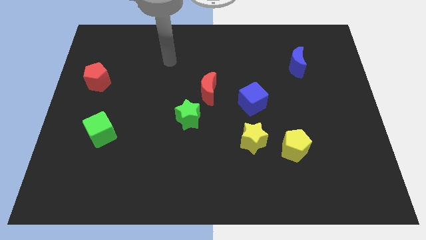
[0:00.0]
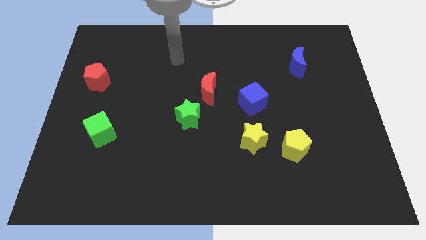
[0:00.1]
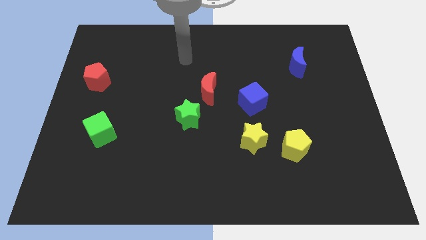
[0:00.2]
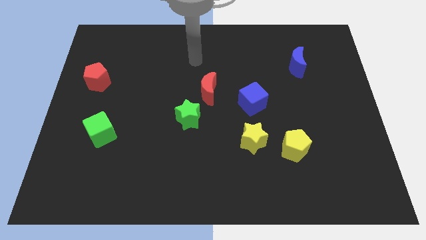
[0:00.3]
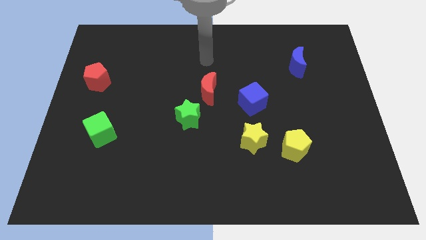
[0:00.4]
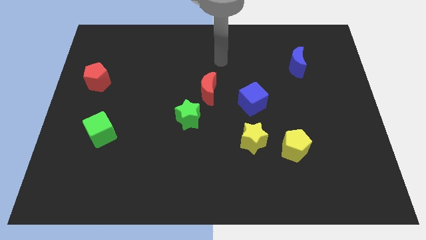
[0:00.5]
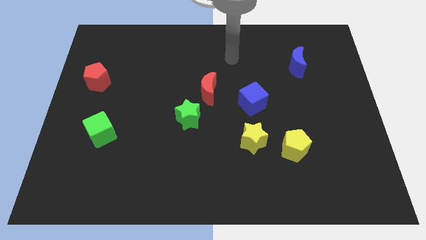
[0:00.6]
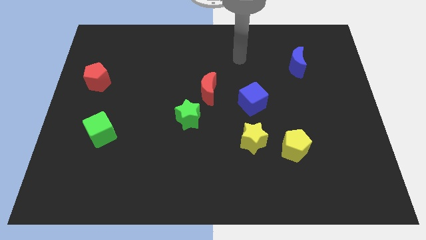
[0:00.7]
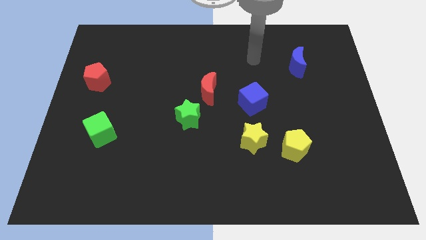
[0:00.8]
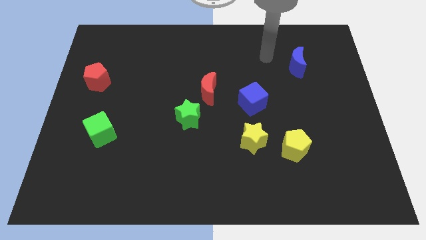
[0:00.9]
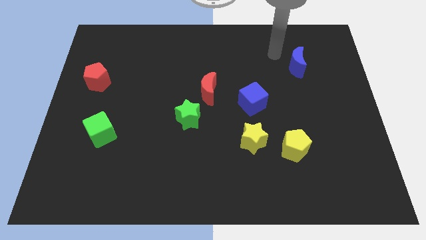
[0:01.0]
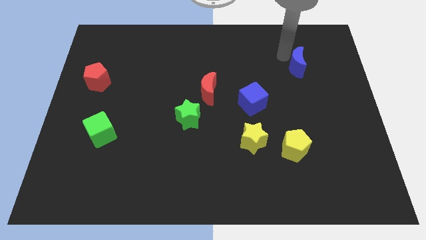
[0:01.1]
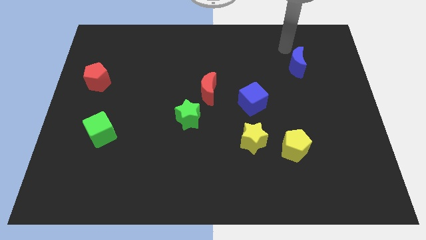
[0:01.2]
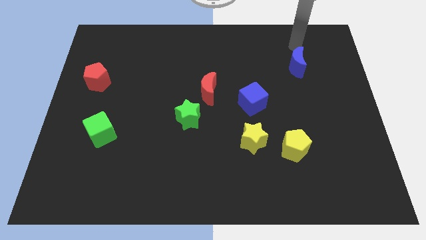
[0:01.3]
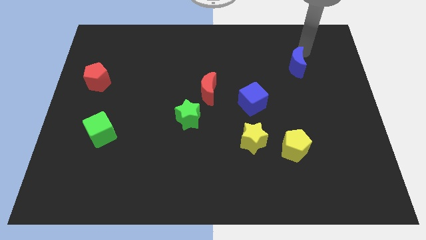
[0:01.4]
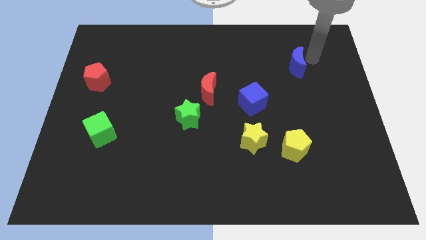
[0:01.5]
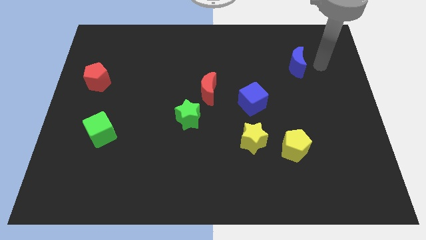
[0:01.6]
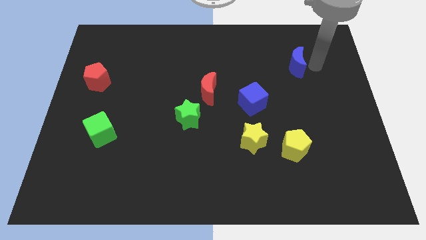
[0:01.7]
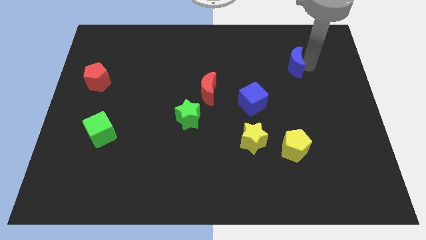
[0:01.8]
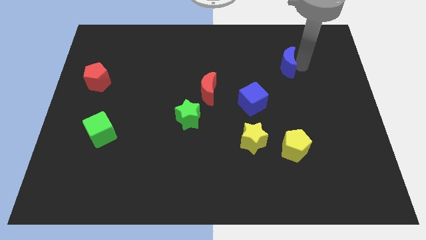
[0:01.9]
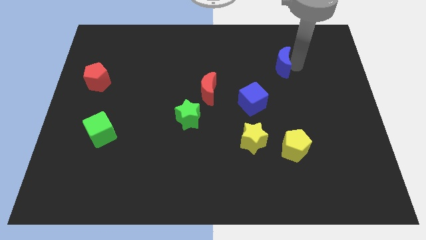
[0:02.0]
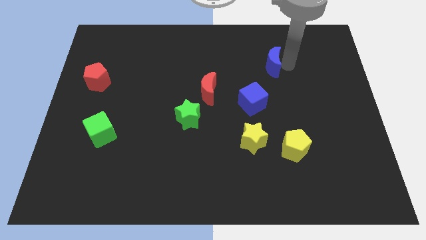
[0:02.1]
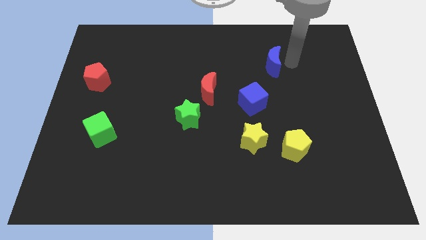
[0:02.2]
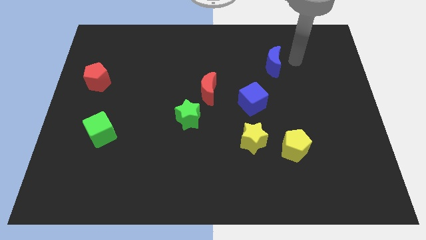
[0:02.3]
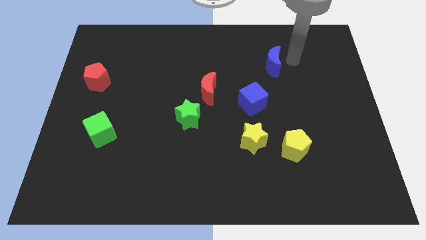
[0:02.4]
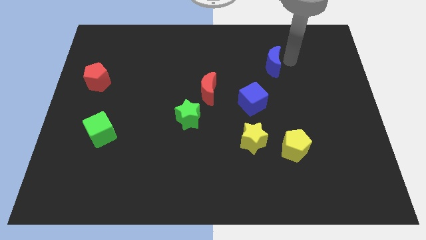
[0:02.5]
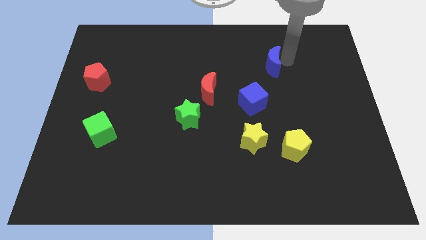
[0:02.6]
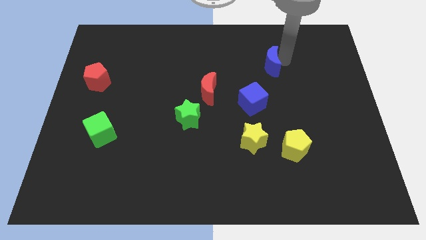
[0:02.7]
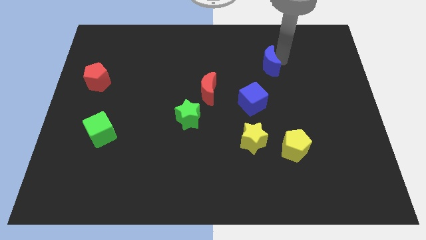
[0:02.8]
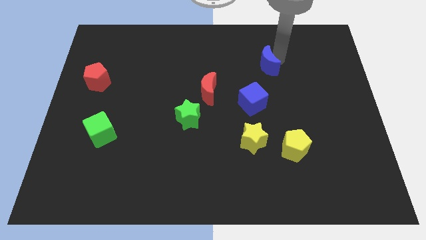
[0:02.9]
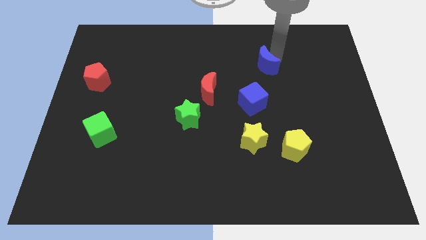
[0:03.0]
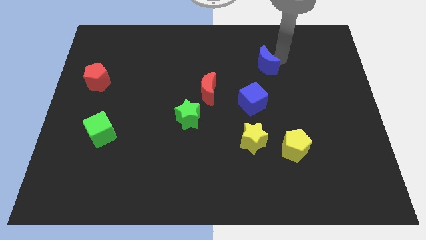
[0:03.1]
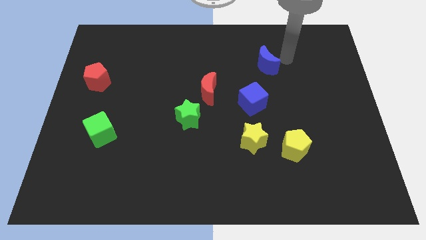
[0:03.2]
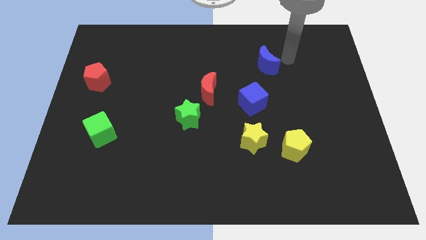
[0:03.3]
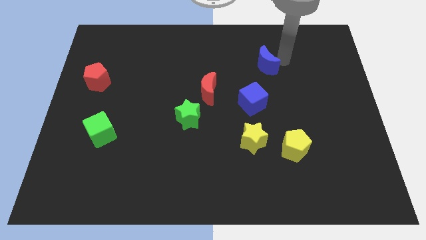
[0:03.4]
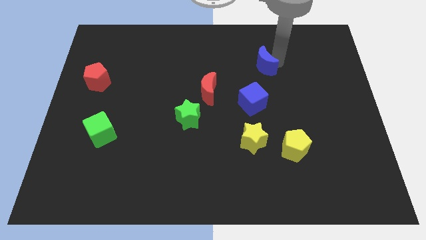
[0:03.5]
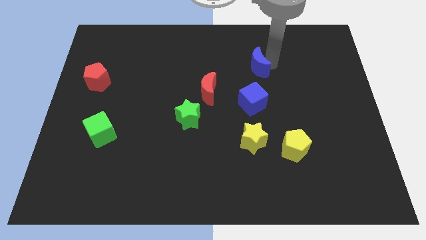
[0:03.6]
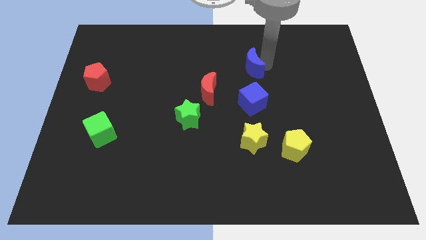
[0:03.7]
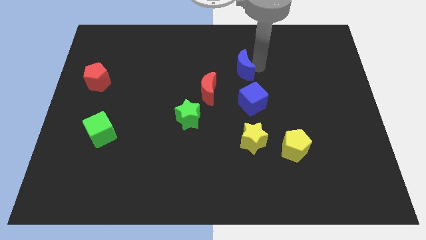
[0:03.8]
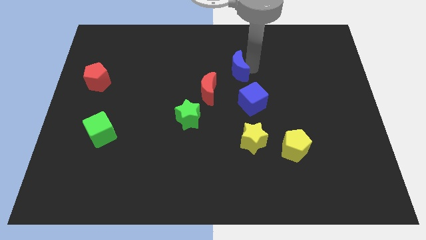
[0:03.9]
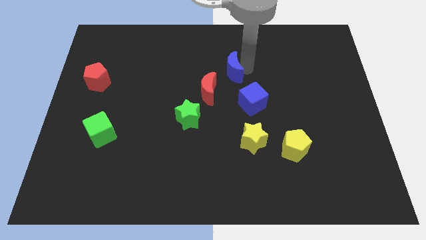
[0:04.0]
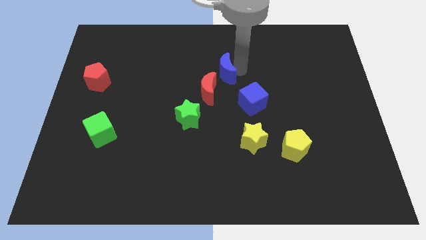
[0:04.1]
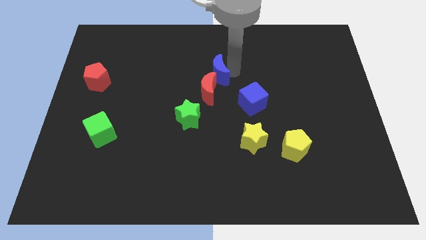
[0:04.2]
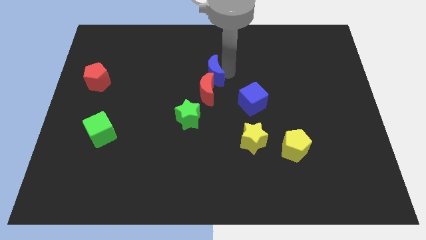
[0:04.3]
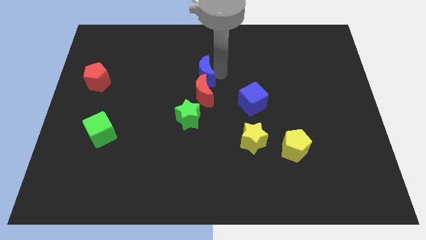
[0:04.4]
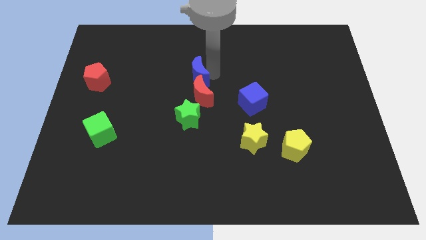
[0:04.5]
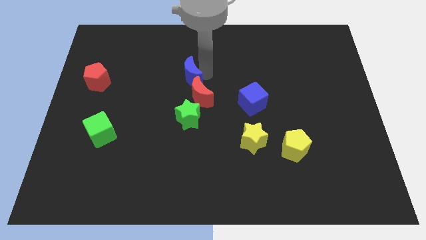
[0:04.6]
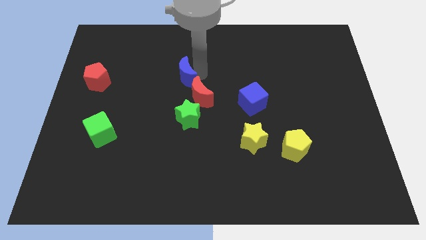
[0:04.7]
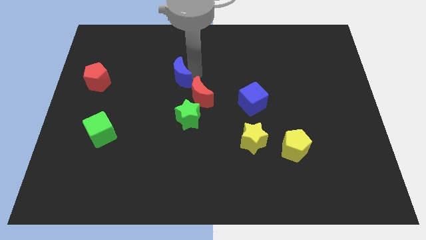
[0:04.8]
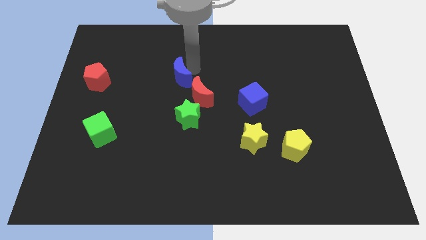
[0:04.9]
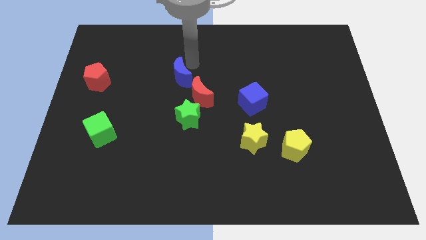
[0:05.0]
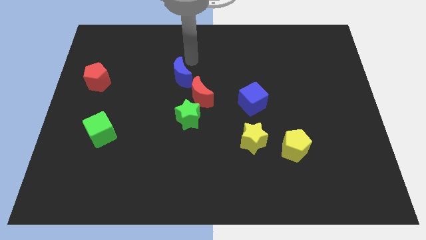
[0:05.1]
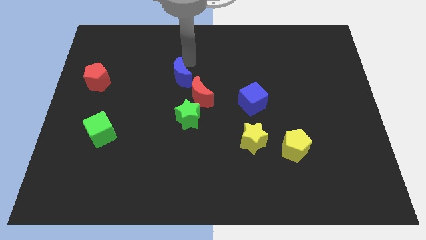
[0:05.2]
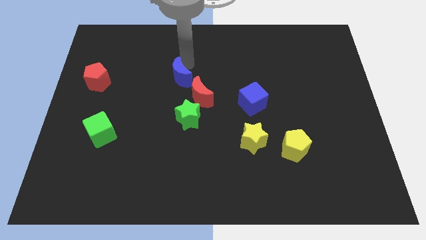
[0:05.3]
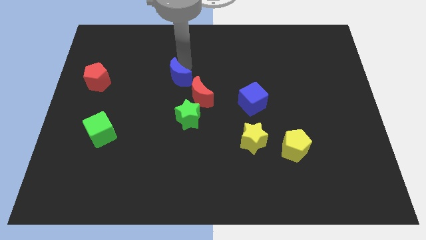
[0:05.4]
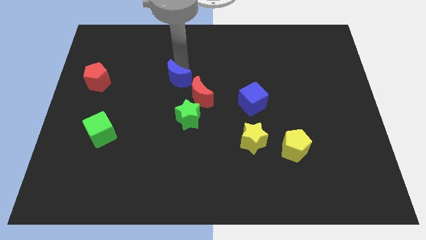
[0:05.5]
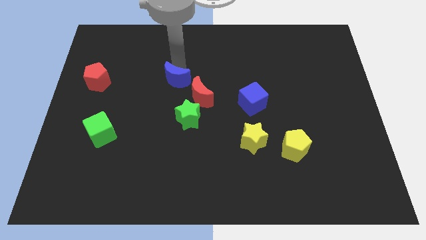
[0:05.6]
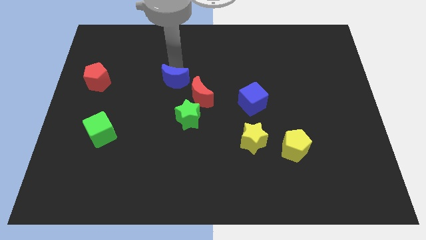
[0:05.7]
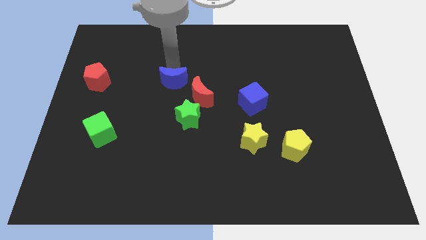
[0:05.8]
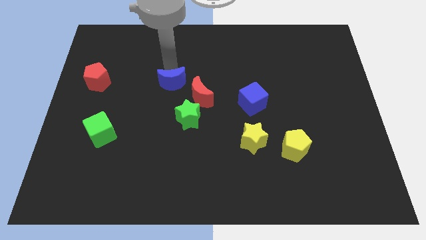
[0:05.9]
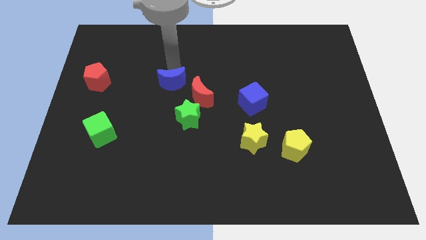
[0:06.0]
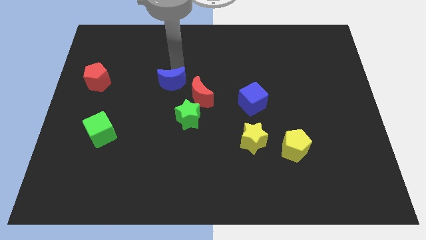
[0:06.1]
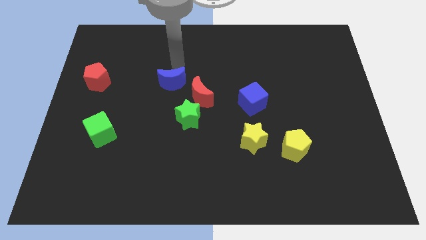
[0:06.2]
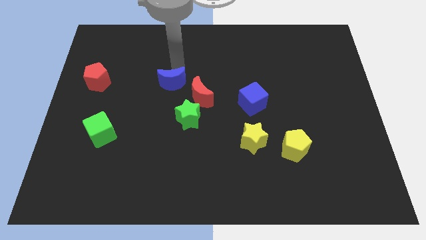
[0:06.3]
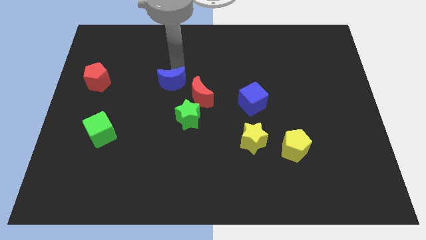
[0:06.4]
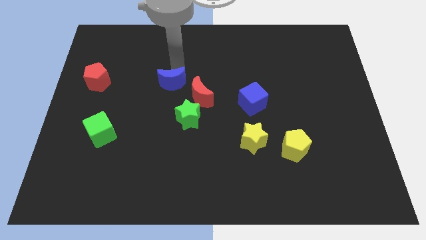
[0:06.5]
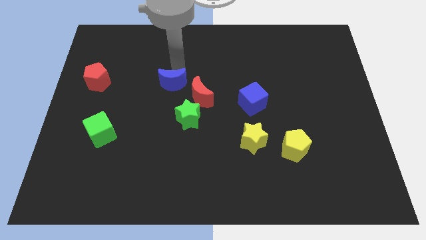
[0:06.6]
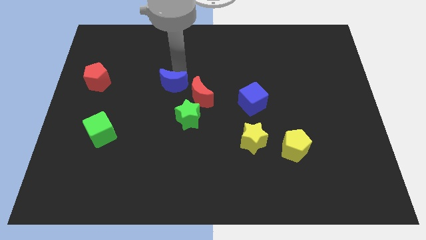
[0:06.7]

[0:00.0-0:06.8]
slide the blue moon to the top left of the green star
